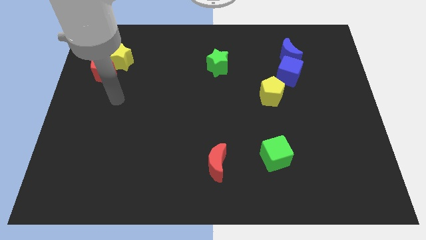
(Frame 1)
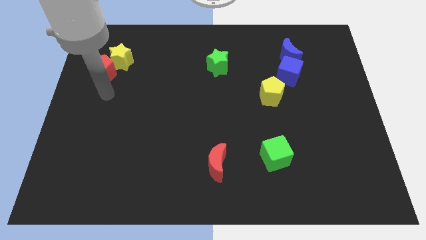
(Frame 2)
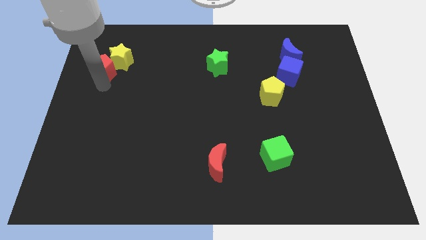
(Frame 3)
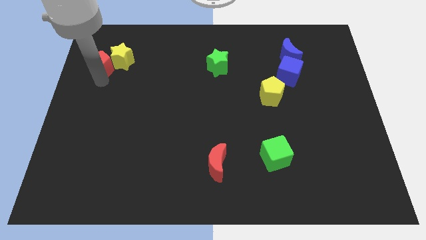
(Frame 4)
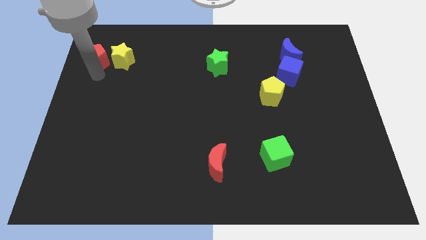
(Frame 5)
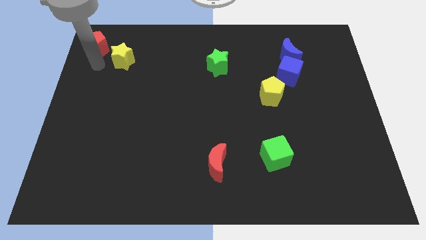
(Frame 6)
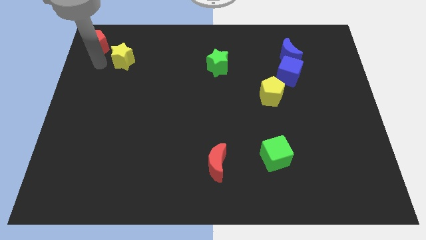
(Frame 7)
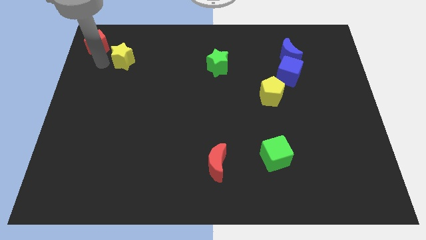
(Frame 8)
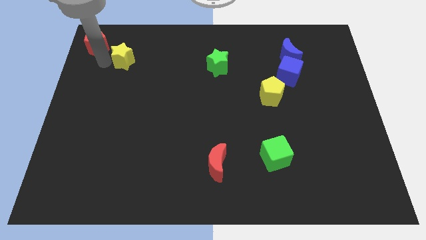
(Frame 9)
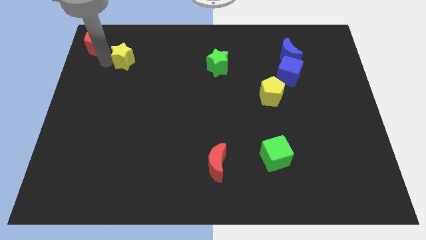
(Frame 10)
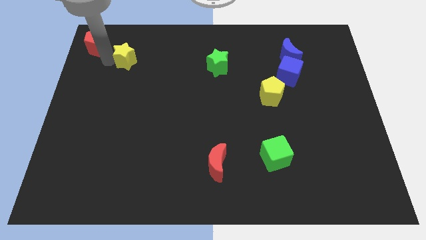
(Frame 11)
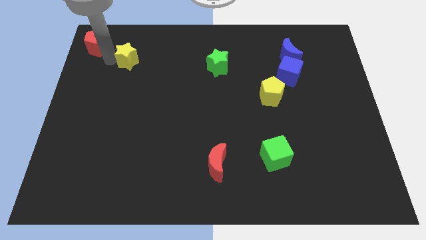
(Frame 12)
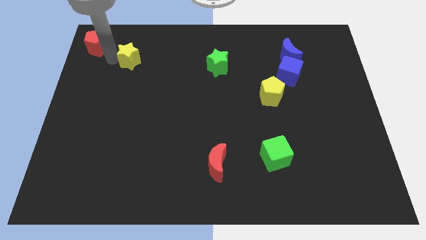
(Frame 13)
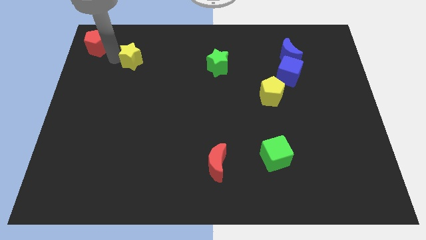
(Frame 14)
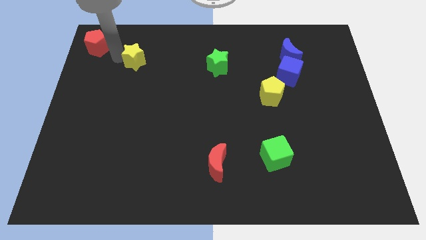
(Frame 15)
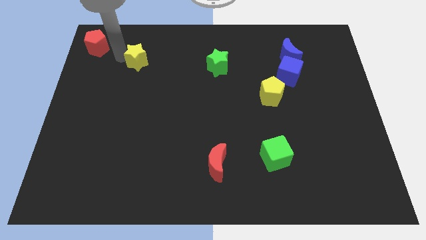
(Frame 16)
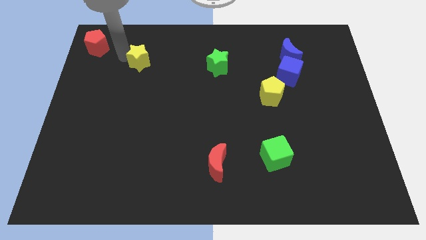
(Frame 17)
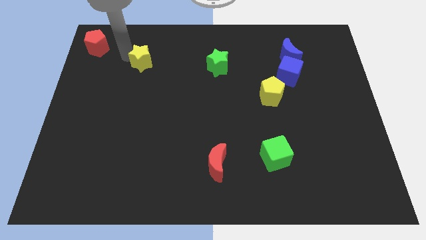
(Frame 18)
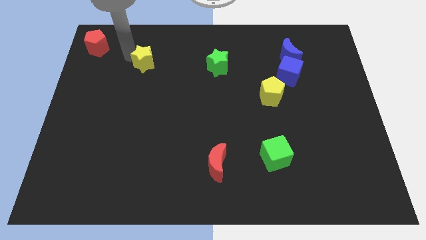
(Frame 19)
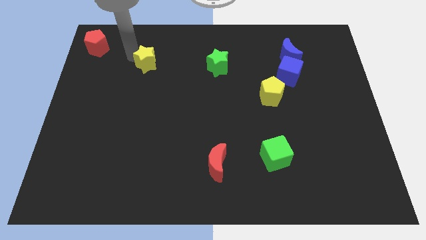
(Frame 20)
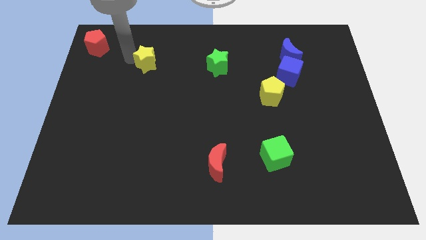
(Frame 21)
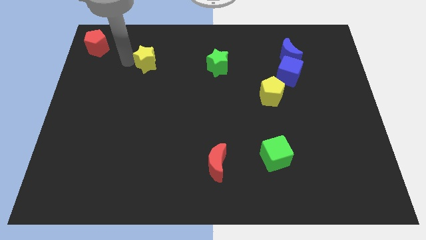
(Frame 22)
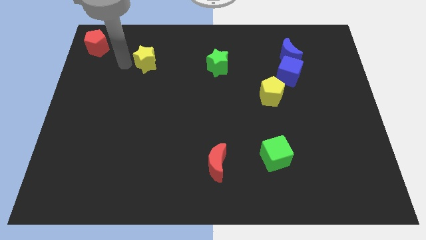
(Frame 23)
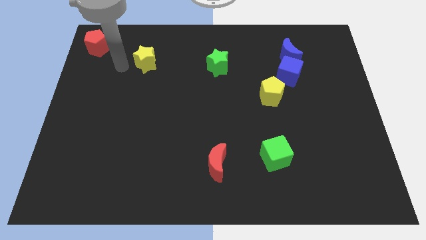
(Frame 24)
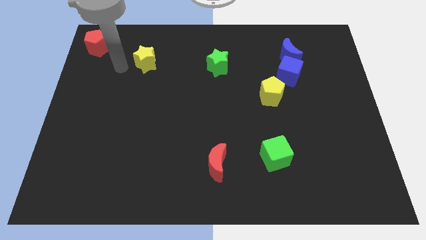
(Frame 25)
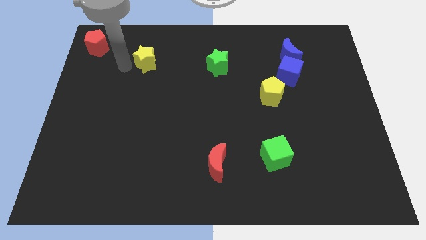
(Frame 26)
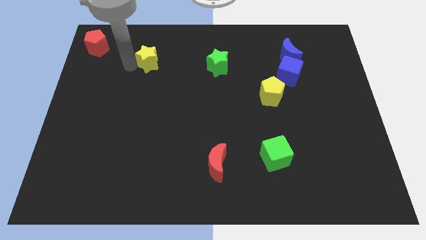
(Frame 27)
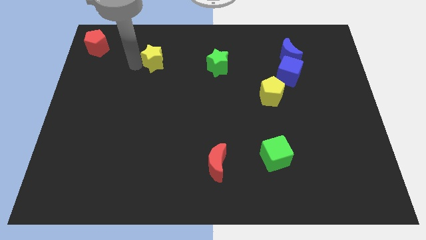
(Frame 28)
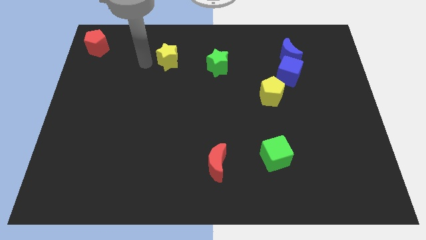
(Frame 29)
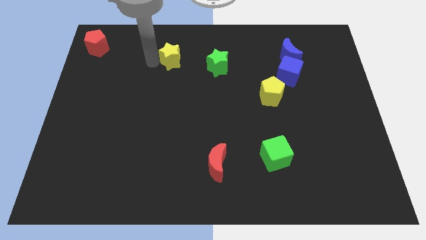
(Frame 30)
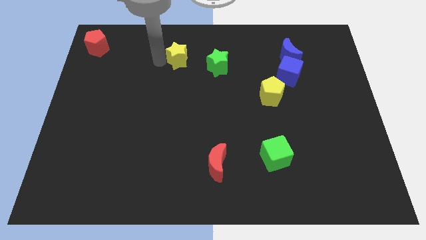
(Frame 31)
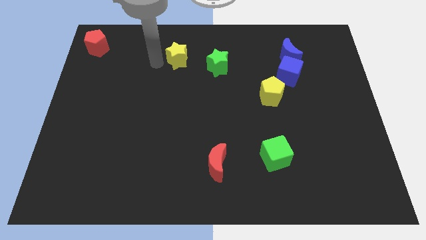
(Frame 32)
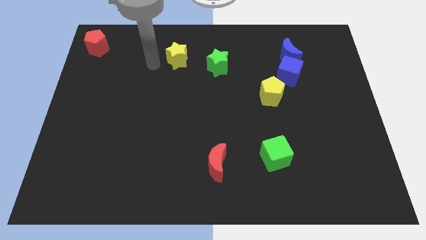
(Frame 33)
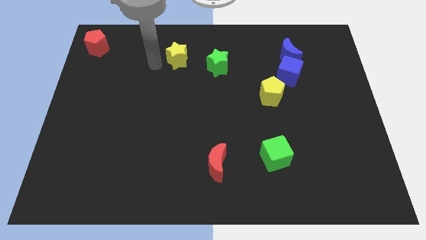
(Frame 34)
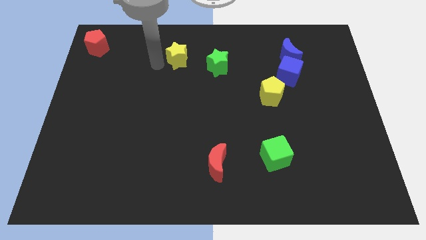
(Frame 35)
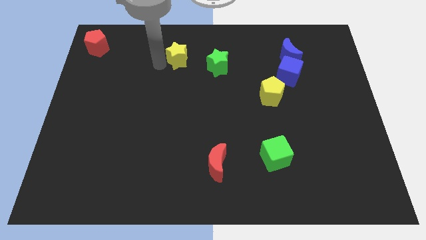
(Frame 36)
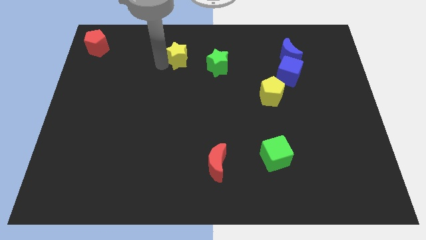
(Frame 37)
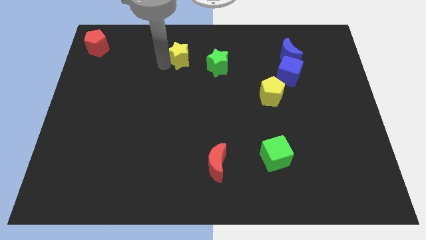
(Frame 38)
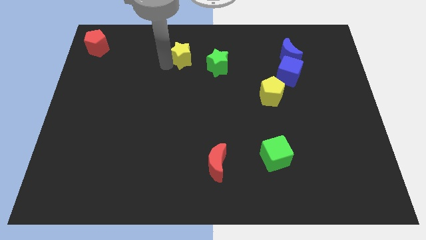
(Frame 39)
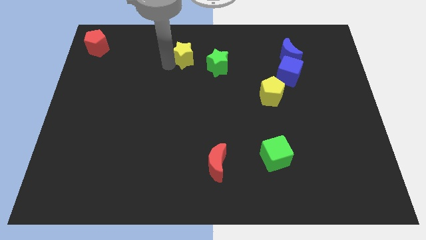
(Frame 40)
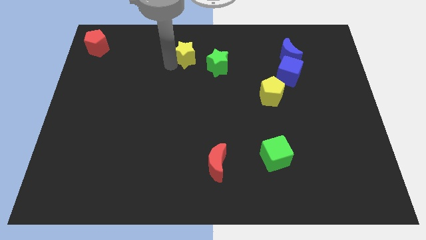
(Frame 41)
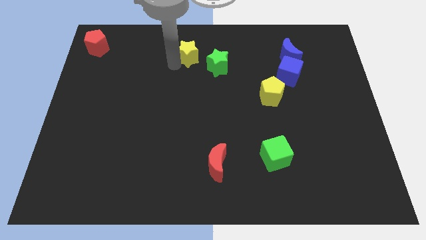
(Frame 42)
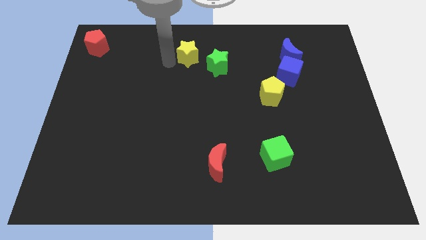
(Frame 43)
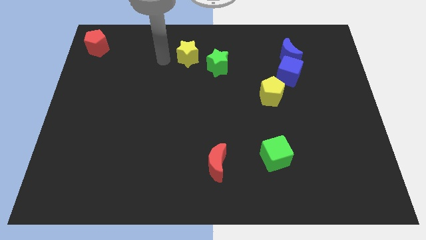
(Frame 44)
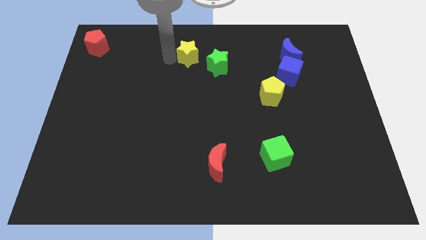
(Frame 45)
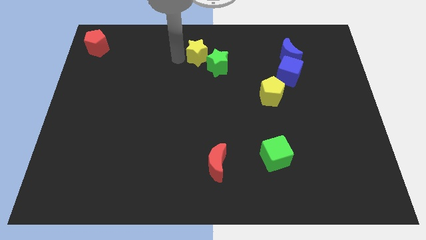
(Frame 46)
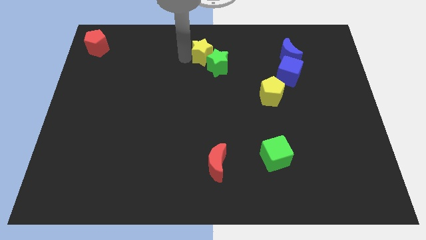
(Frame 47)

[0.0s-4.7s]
slide the yellow star right

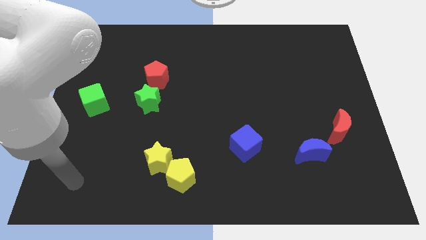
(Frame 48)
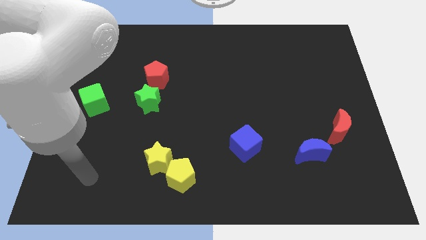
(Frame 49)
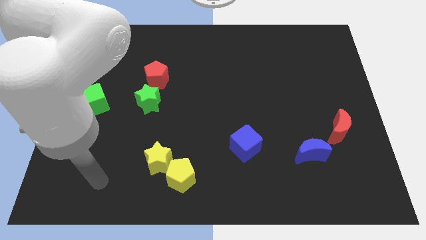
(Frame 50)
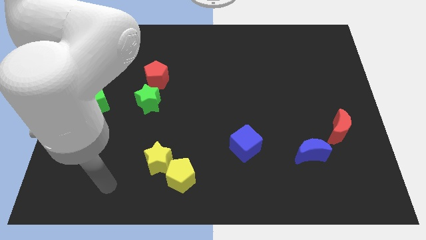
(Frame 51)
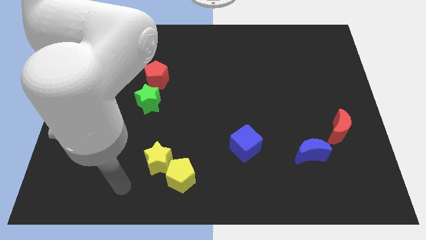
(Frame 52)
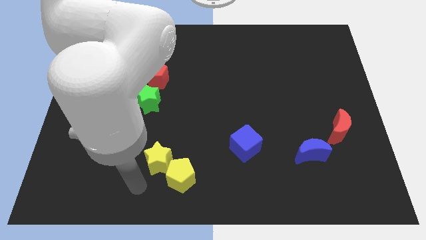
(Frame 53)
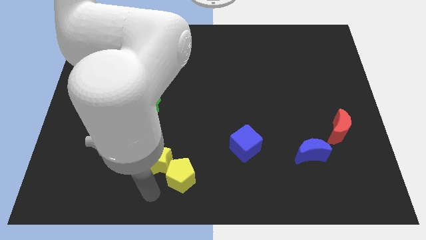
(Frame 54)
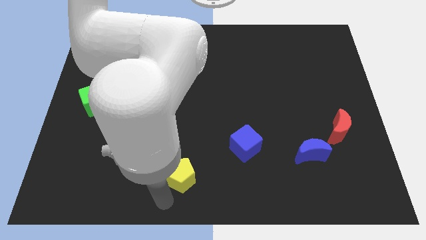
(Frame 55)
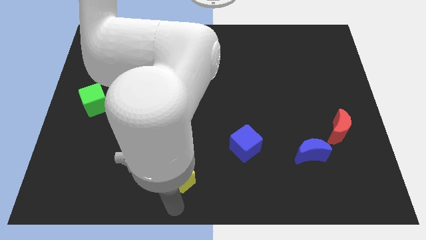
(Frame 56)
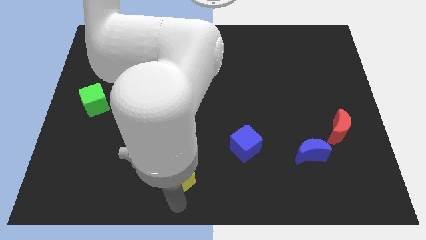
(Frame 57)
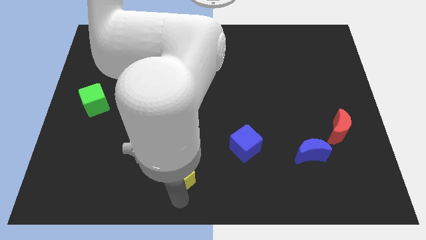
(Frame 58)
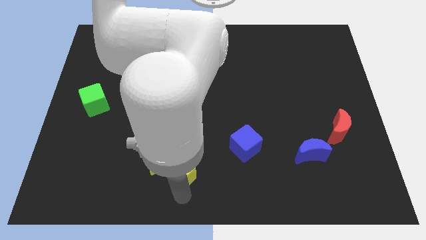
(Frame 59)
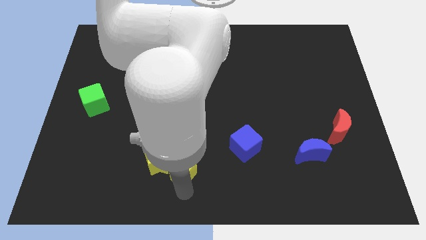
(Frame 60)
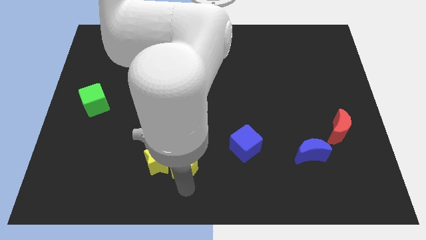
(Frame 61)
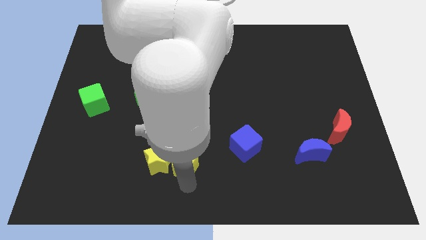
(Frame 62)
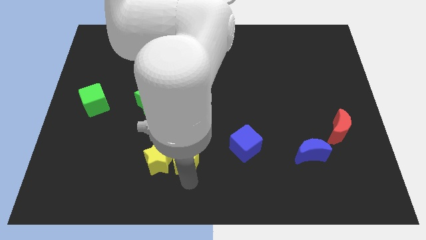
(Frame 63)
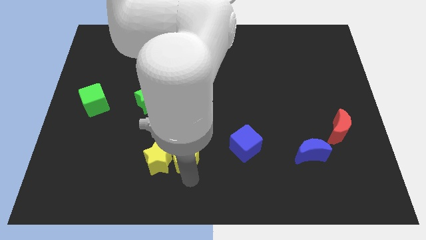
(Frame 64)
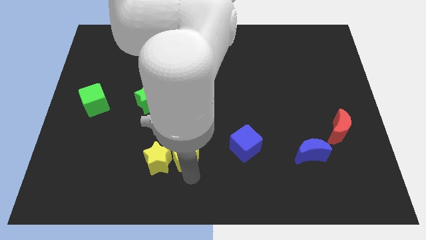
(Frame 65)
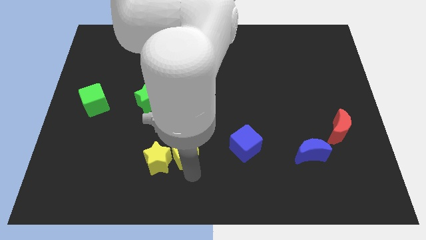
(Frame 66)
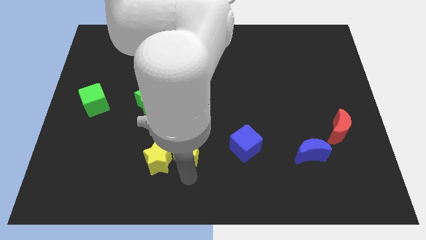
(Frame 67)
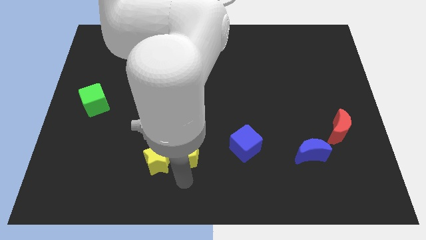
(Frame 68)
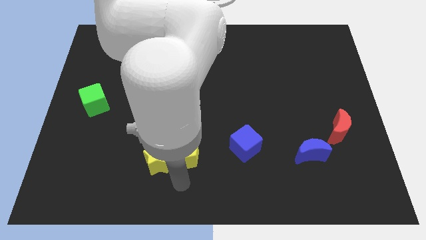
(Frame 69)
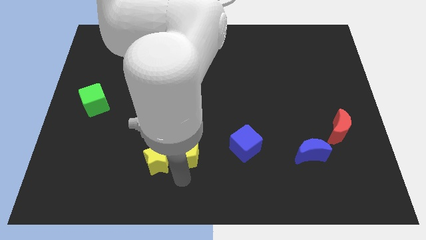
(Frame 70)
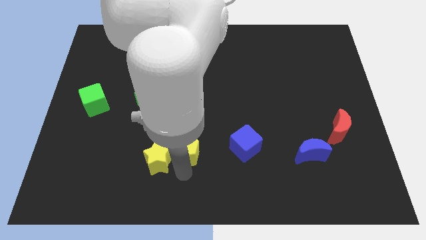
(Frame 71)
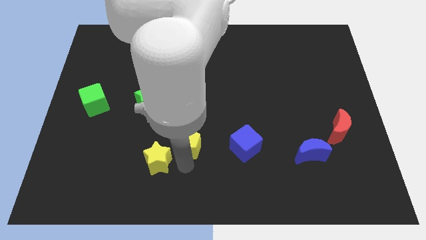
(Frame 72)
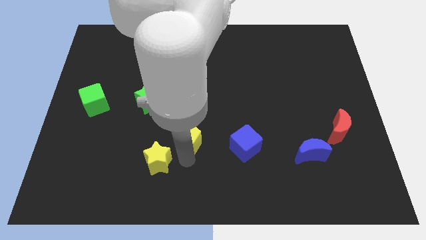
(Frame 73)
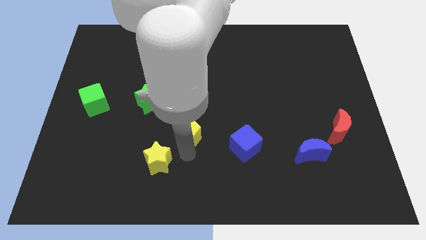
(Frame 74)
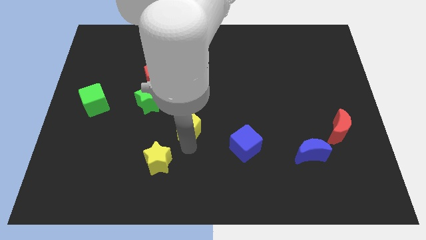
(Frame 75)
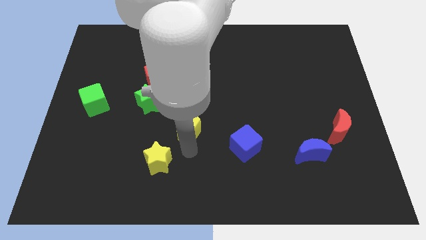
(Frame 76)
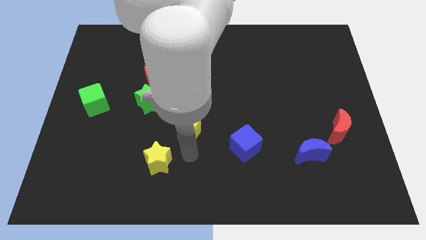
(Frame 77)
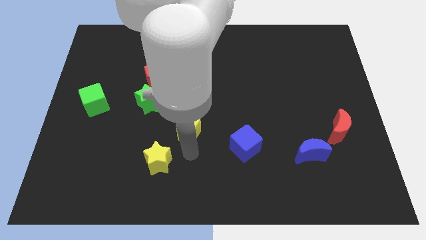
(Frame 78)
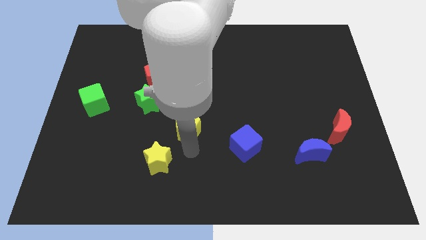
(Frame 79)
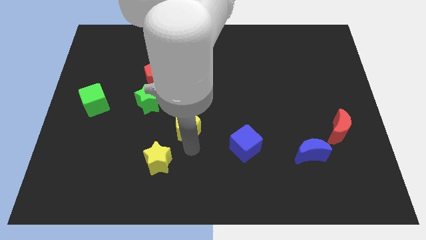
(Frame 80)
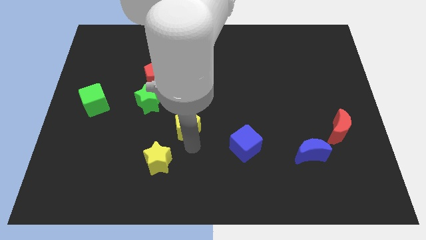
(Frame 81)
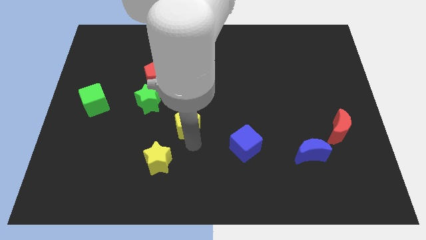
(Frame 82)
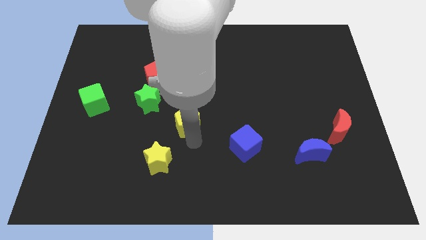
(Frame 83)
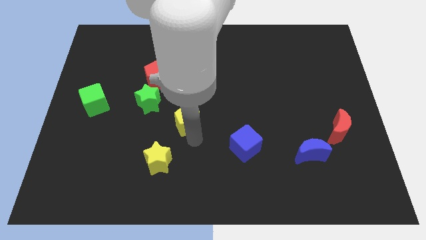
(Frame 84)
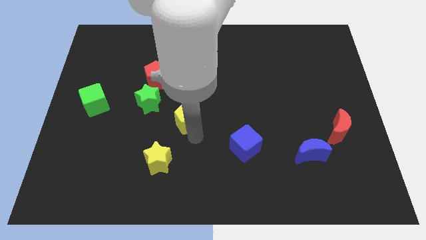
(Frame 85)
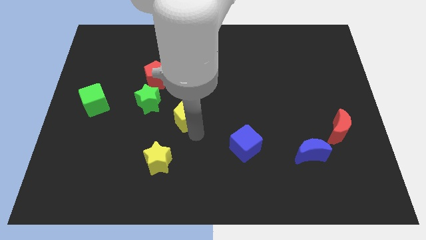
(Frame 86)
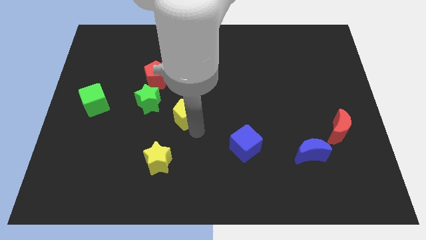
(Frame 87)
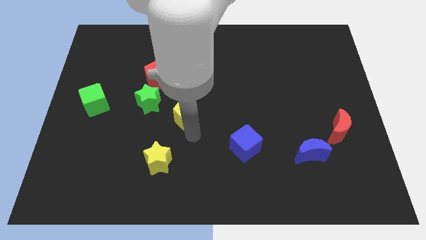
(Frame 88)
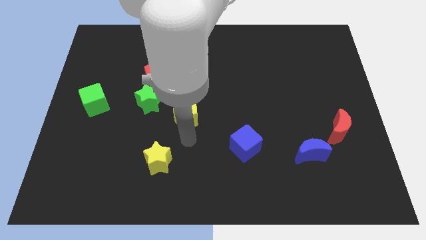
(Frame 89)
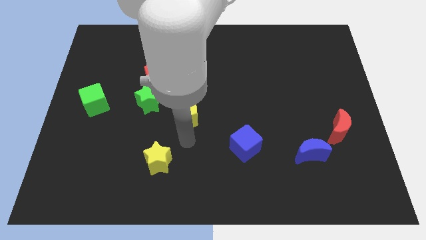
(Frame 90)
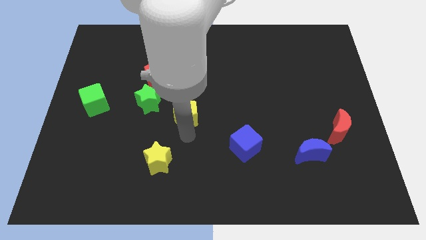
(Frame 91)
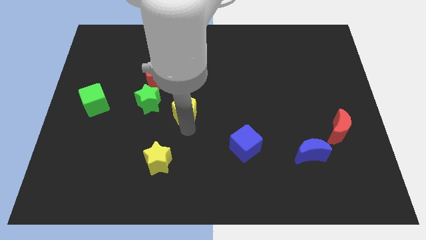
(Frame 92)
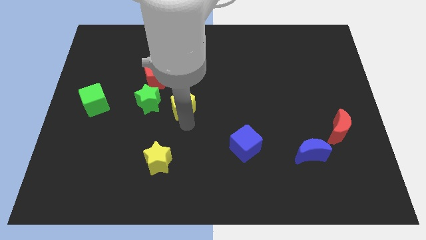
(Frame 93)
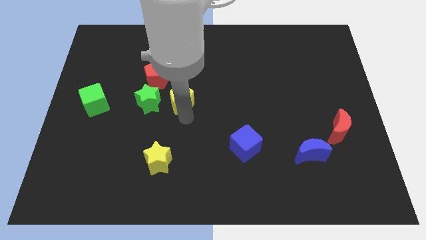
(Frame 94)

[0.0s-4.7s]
push the yellow pentagon upwards
